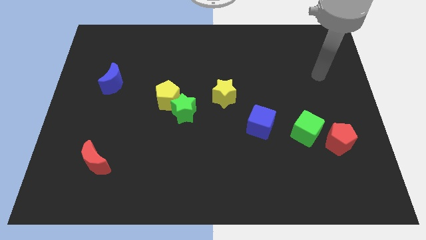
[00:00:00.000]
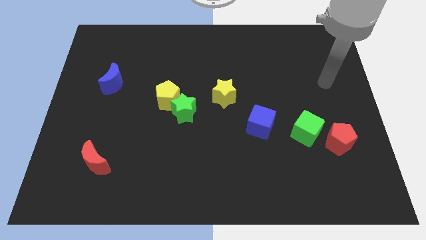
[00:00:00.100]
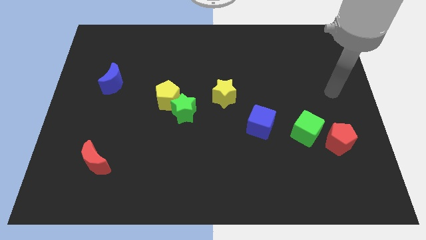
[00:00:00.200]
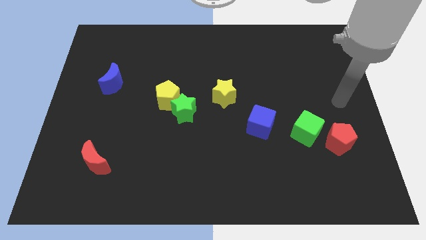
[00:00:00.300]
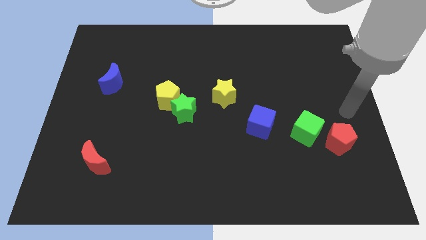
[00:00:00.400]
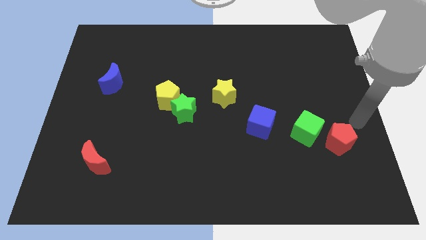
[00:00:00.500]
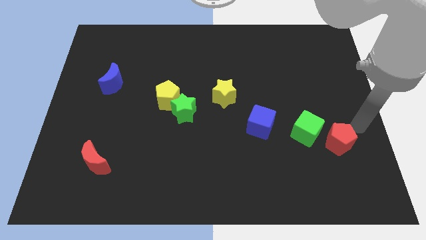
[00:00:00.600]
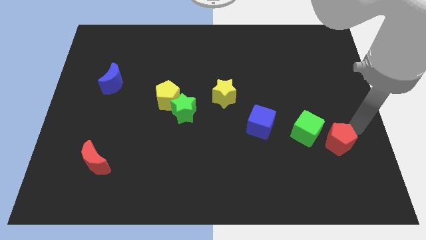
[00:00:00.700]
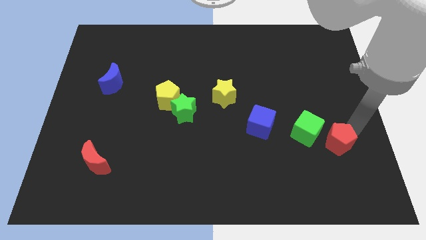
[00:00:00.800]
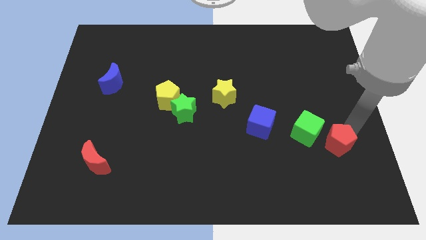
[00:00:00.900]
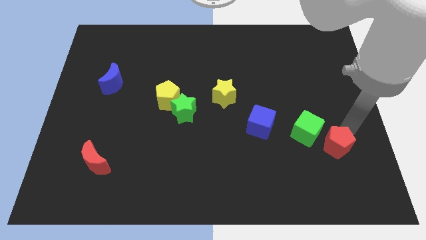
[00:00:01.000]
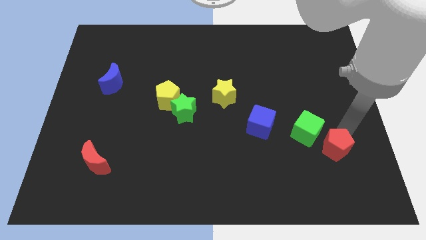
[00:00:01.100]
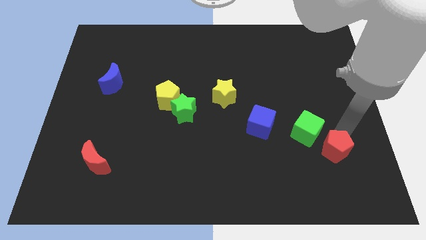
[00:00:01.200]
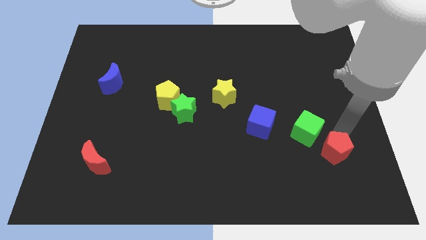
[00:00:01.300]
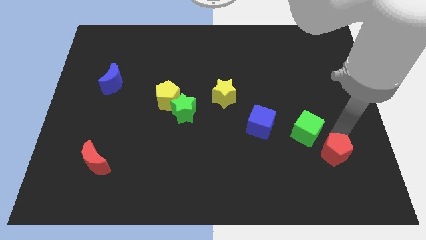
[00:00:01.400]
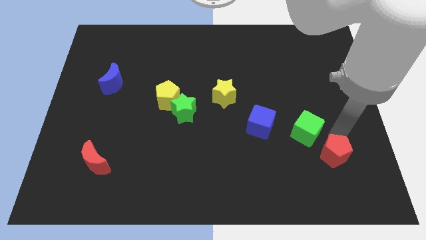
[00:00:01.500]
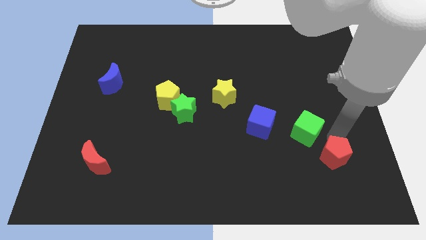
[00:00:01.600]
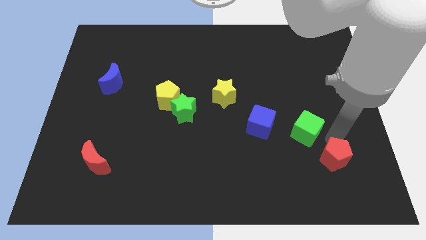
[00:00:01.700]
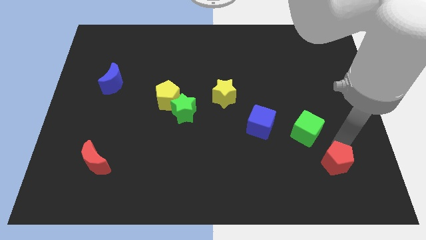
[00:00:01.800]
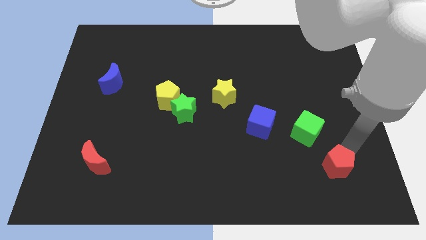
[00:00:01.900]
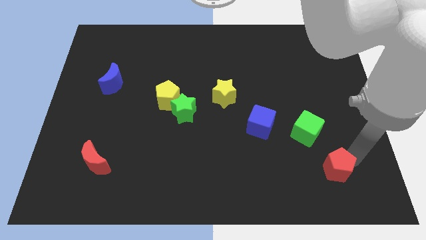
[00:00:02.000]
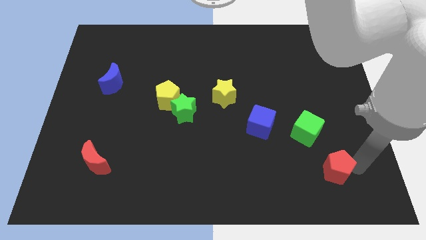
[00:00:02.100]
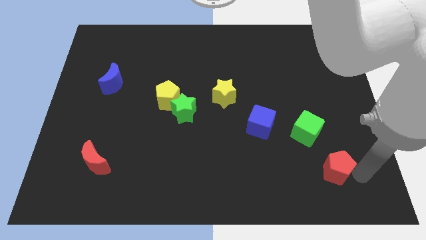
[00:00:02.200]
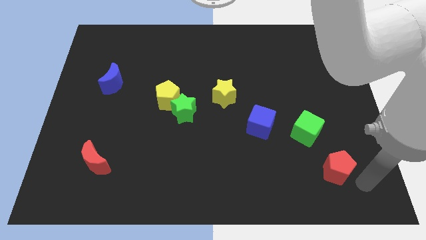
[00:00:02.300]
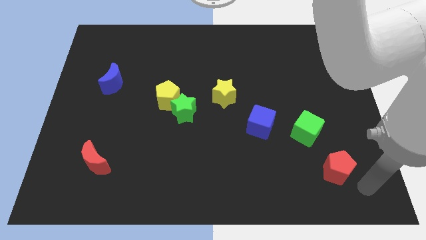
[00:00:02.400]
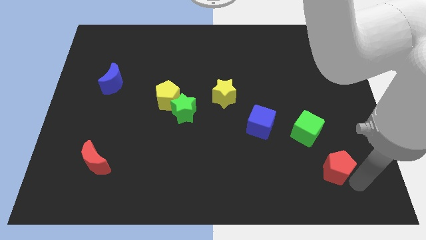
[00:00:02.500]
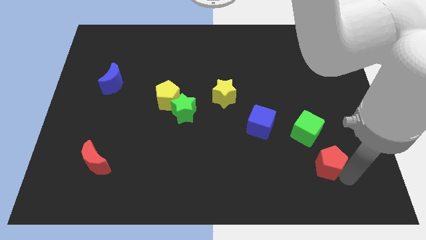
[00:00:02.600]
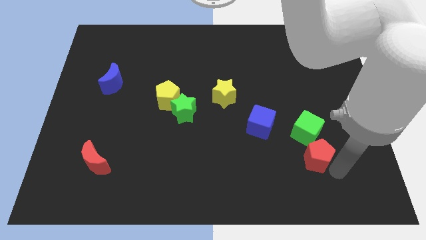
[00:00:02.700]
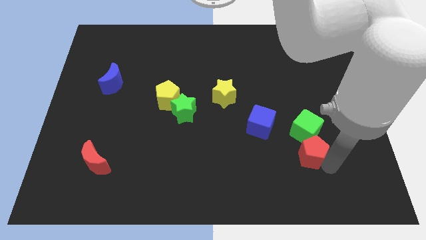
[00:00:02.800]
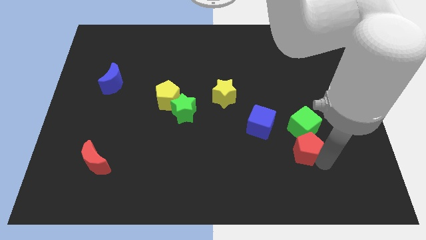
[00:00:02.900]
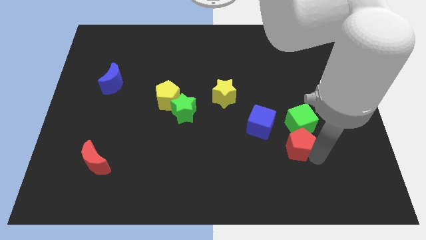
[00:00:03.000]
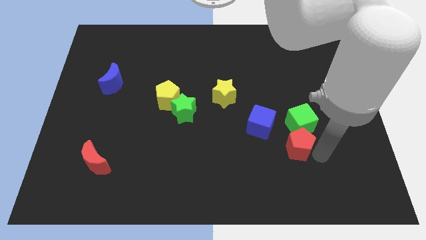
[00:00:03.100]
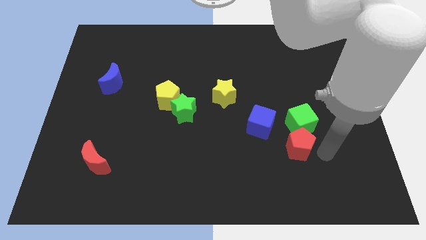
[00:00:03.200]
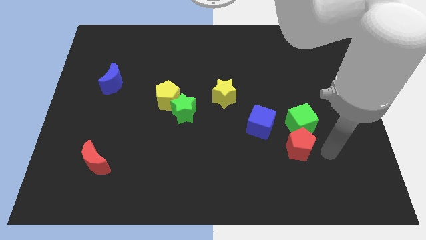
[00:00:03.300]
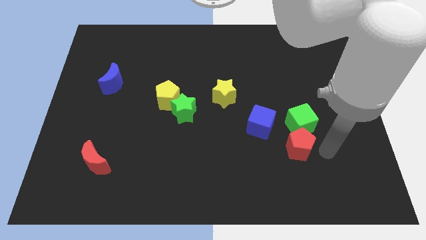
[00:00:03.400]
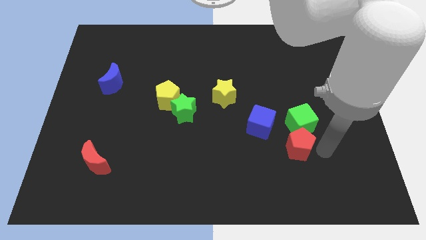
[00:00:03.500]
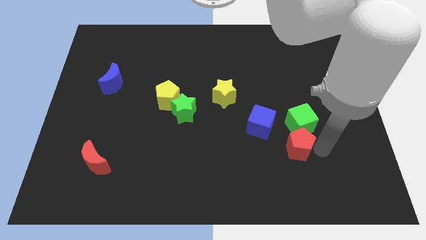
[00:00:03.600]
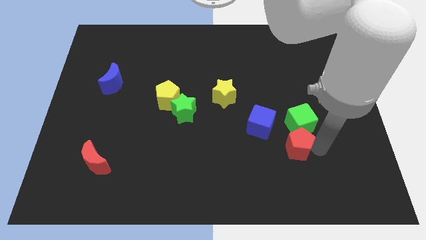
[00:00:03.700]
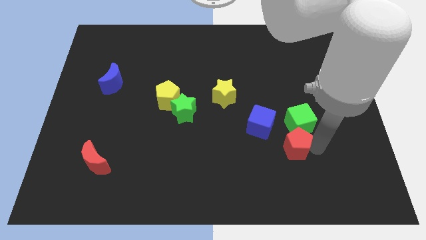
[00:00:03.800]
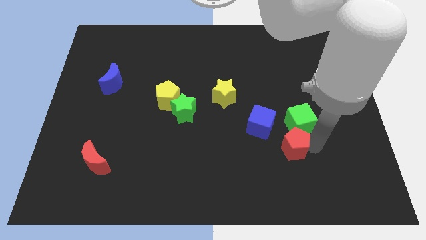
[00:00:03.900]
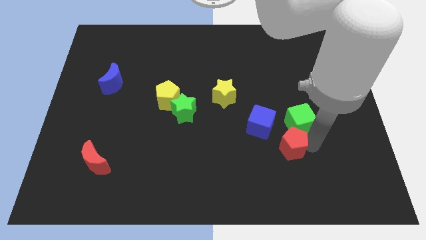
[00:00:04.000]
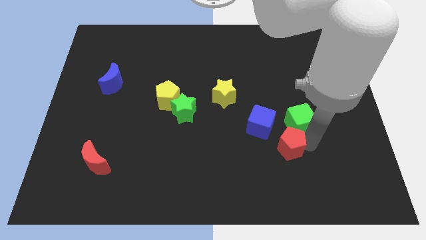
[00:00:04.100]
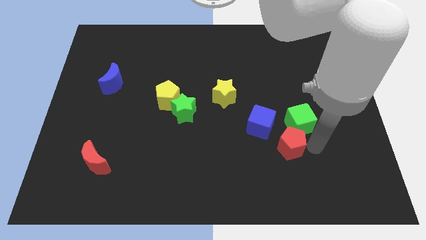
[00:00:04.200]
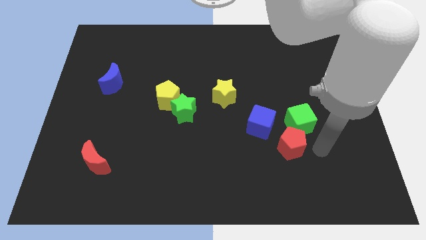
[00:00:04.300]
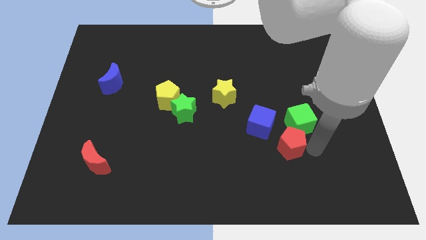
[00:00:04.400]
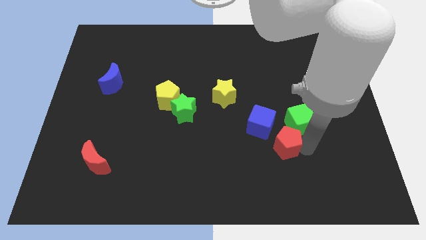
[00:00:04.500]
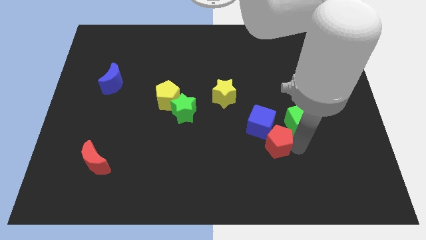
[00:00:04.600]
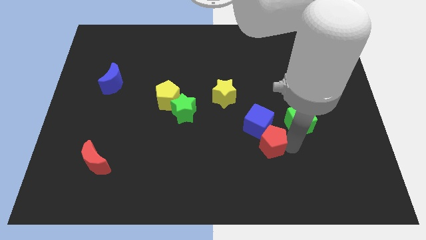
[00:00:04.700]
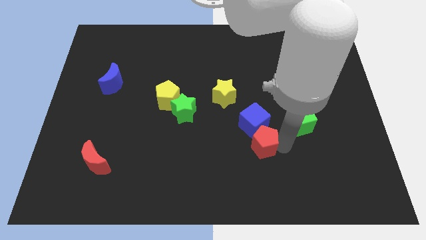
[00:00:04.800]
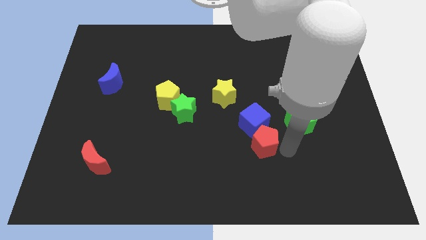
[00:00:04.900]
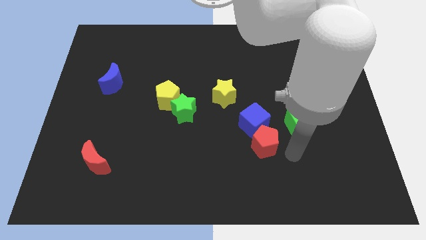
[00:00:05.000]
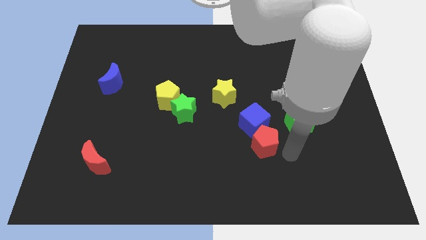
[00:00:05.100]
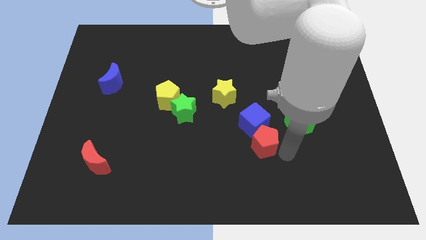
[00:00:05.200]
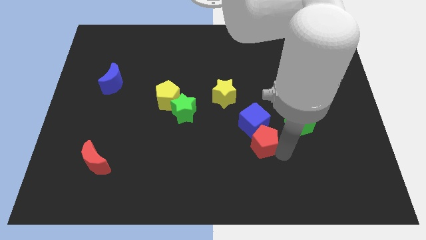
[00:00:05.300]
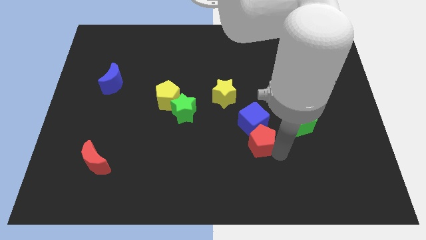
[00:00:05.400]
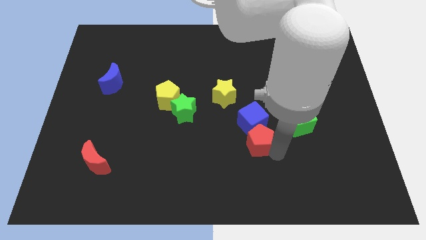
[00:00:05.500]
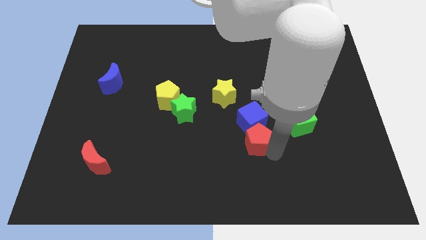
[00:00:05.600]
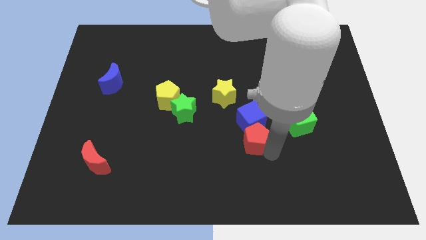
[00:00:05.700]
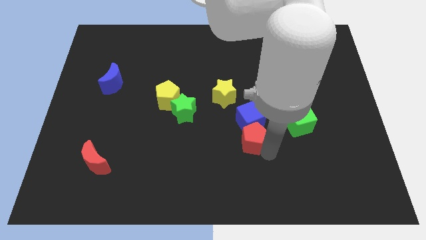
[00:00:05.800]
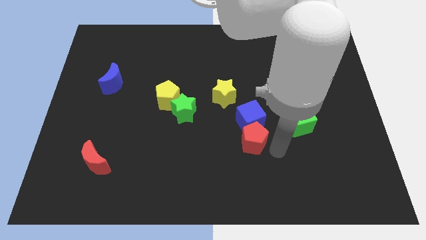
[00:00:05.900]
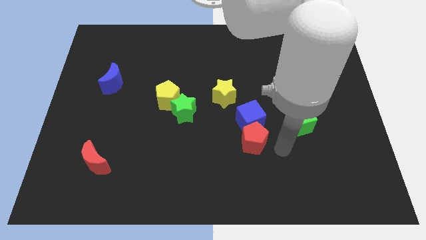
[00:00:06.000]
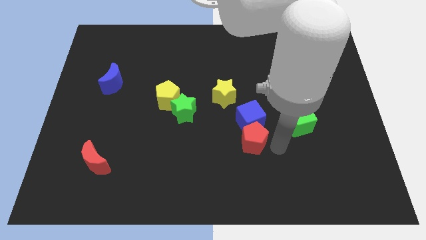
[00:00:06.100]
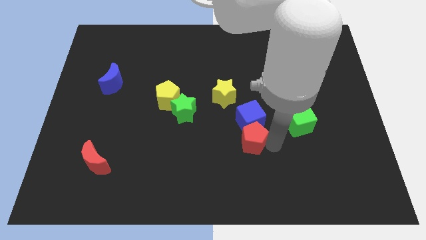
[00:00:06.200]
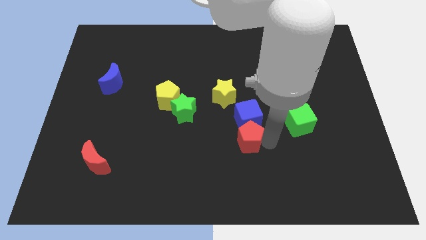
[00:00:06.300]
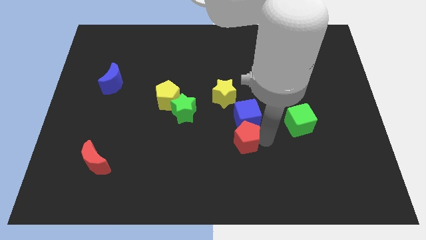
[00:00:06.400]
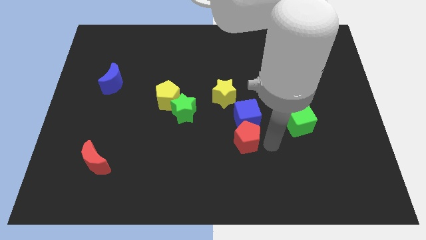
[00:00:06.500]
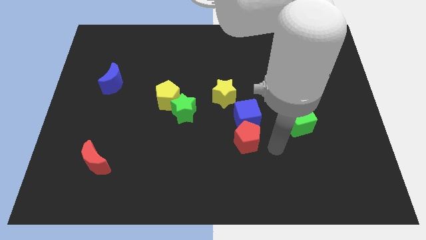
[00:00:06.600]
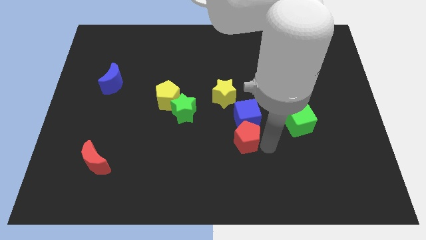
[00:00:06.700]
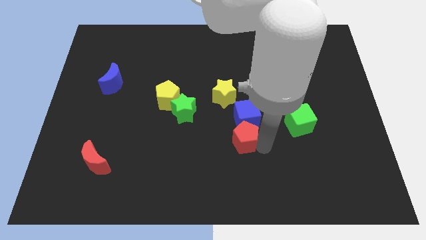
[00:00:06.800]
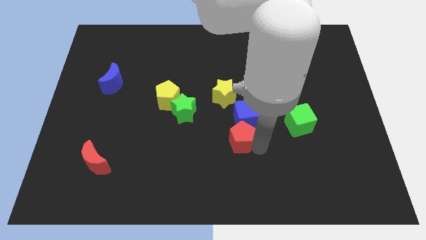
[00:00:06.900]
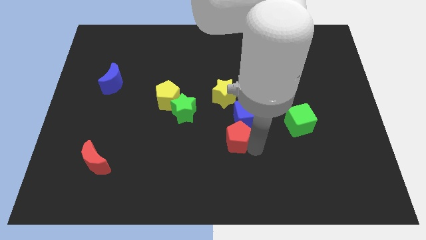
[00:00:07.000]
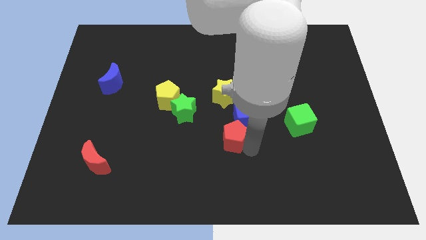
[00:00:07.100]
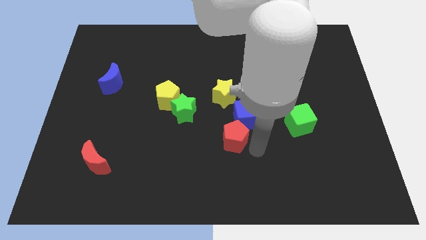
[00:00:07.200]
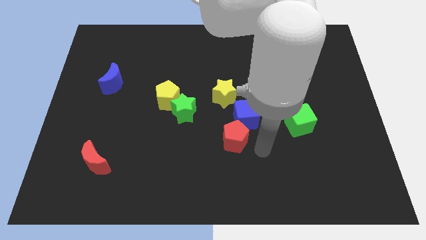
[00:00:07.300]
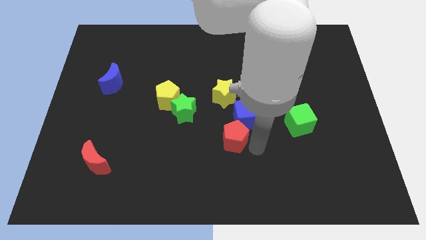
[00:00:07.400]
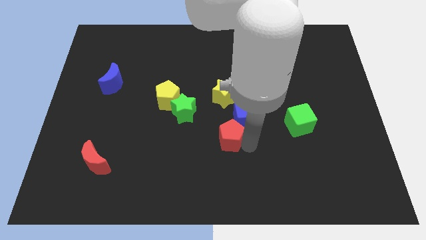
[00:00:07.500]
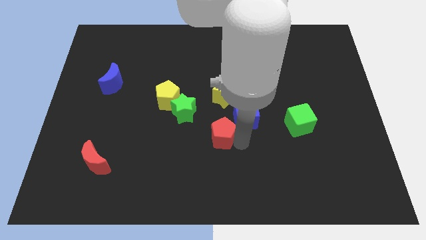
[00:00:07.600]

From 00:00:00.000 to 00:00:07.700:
slide the red pentagon to the bottom right of the green star
